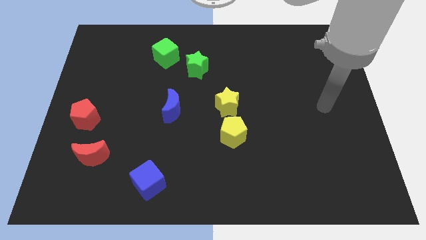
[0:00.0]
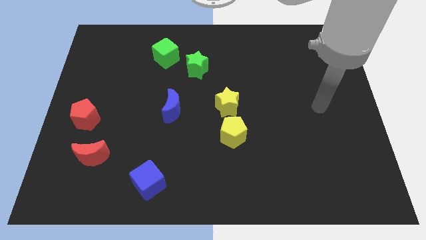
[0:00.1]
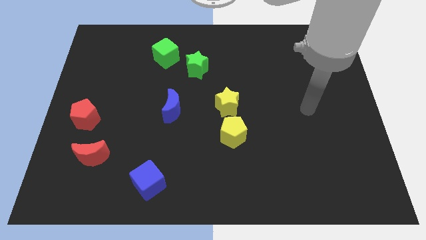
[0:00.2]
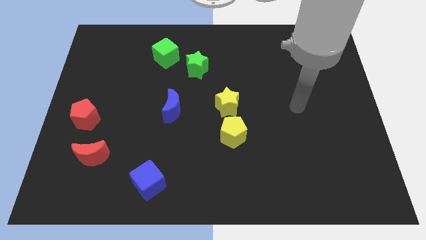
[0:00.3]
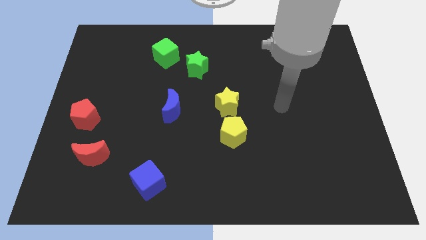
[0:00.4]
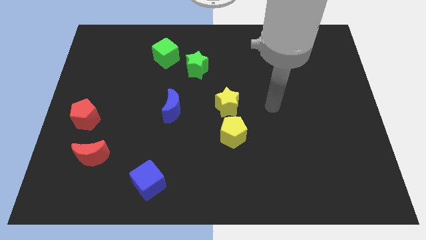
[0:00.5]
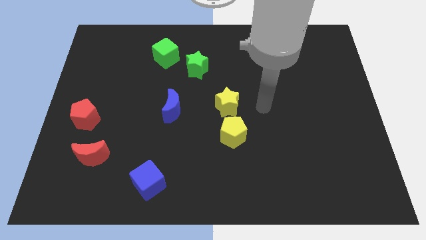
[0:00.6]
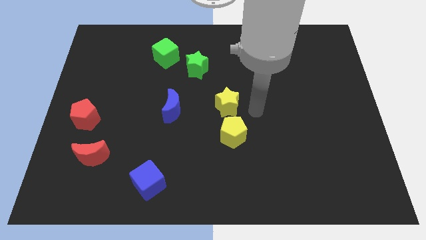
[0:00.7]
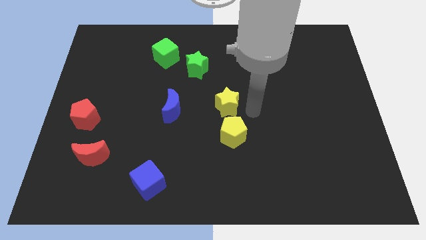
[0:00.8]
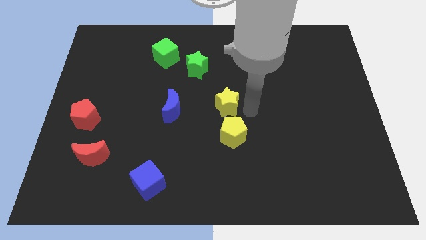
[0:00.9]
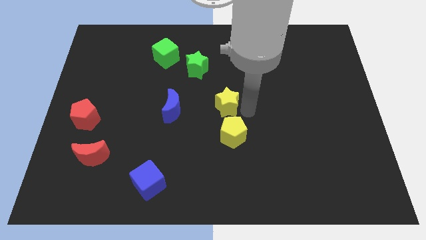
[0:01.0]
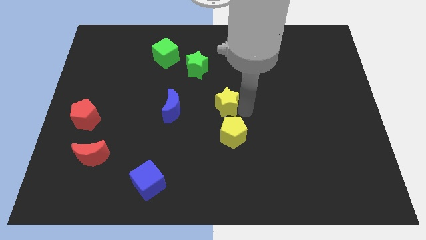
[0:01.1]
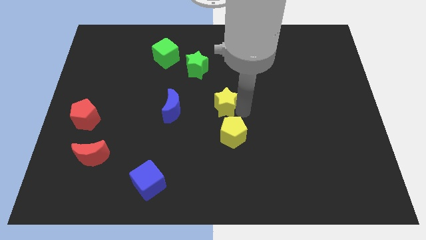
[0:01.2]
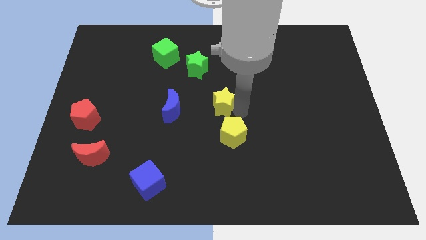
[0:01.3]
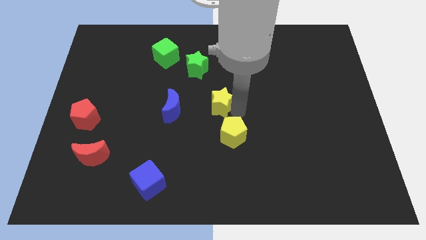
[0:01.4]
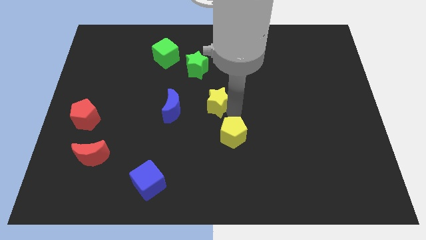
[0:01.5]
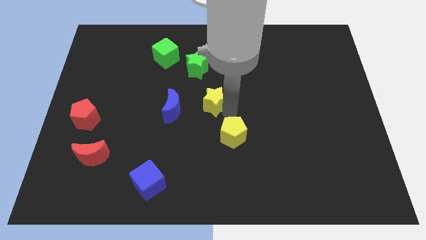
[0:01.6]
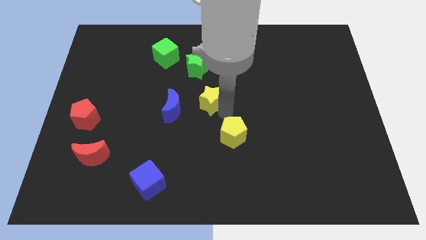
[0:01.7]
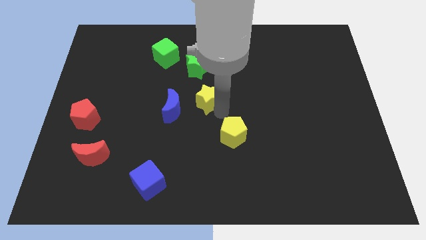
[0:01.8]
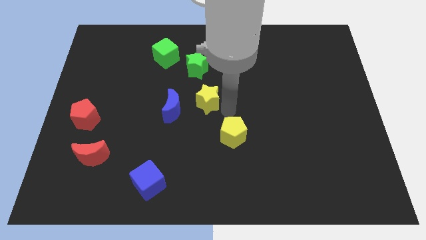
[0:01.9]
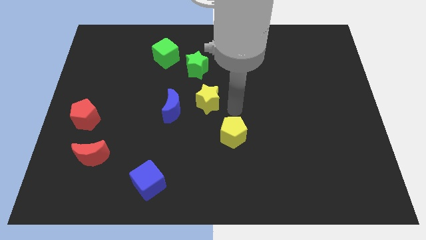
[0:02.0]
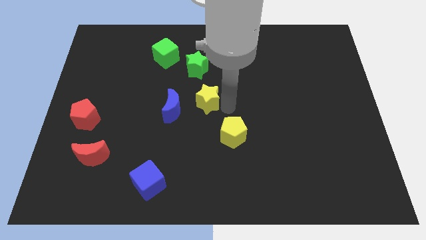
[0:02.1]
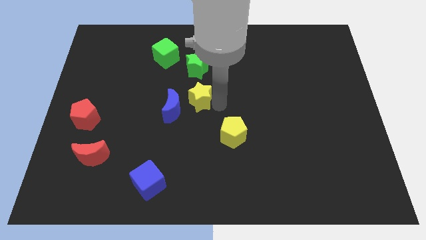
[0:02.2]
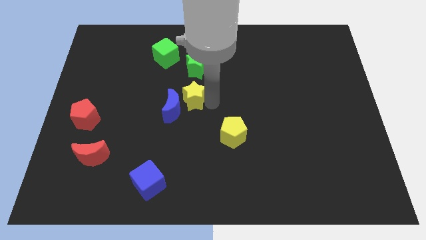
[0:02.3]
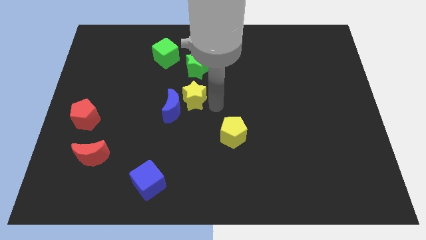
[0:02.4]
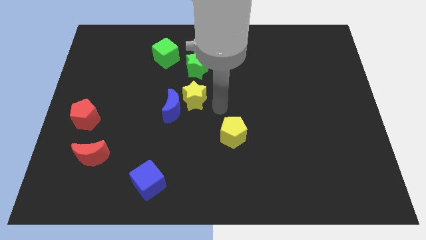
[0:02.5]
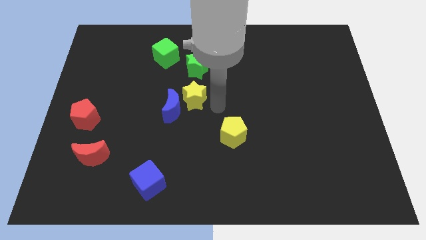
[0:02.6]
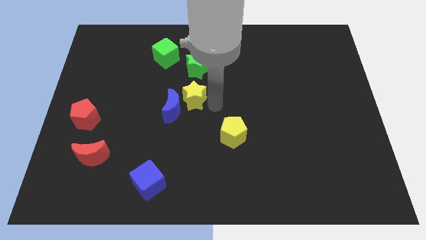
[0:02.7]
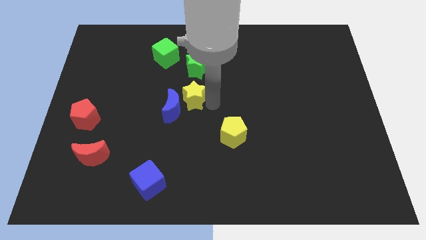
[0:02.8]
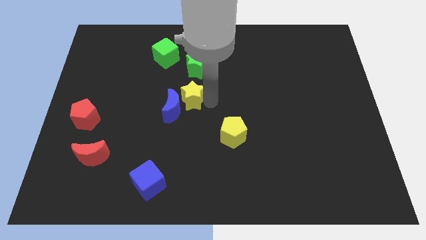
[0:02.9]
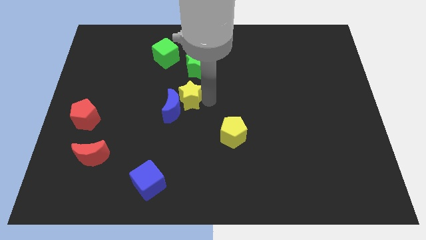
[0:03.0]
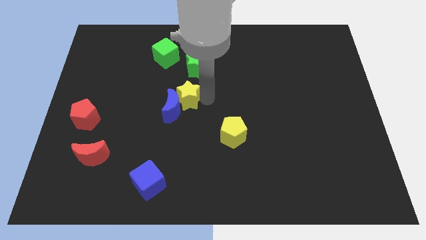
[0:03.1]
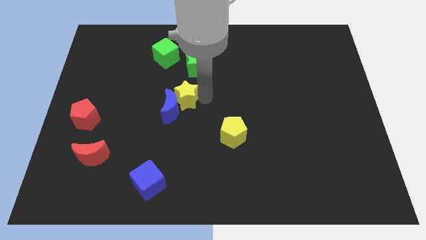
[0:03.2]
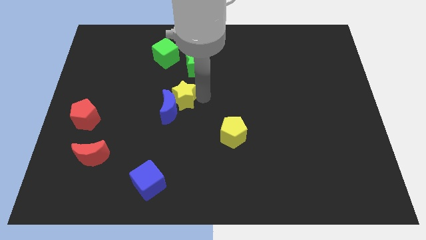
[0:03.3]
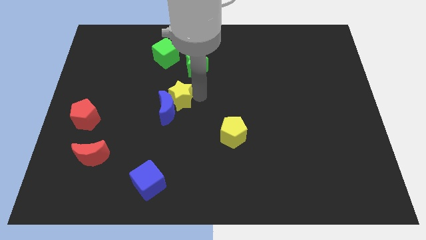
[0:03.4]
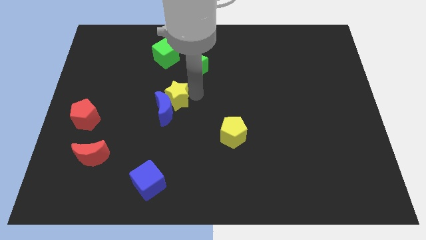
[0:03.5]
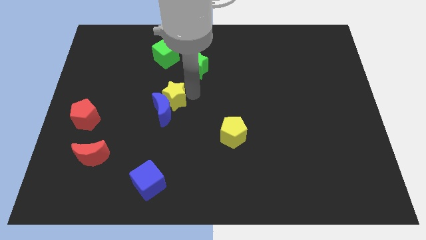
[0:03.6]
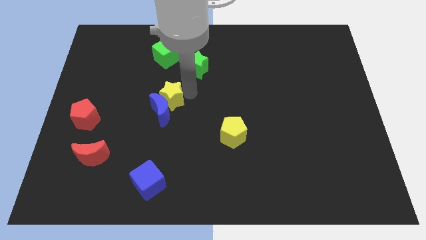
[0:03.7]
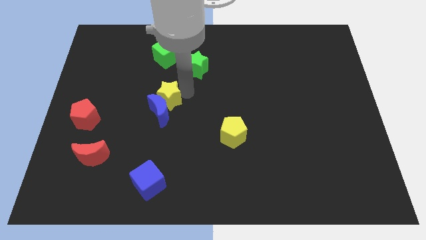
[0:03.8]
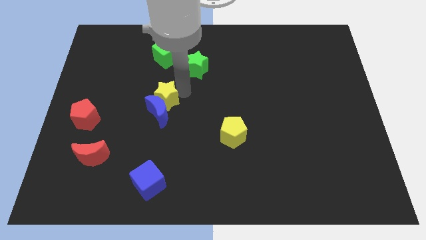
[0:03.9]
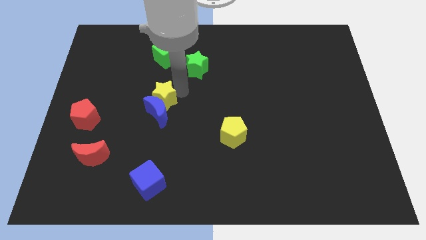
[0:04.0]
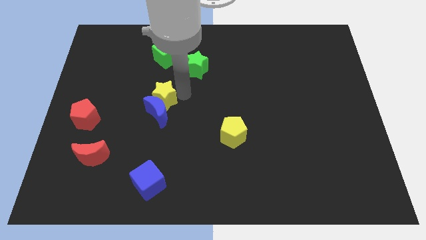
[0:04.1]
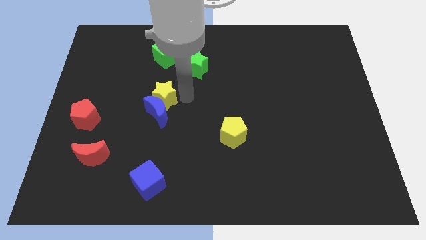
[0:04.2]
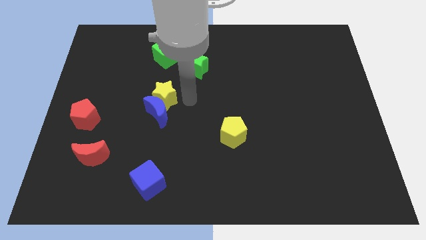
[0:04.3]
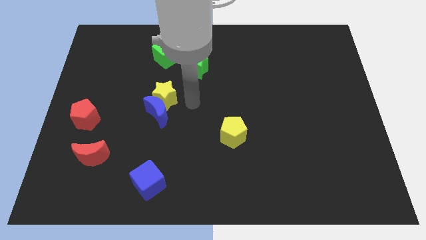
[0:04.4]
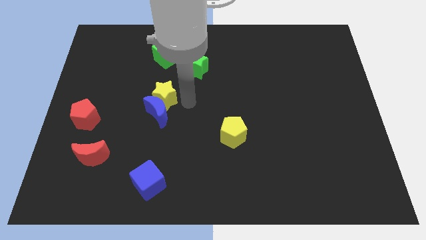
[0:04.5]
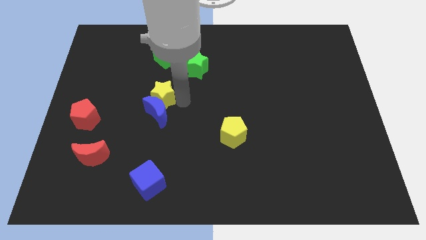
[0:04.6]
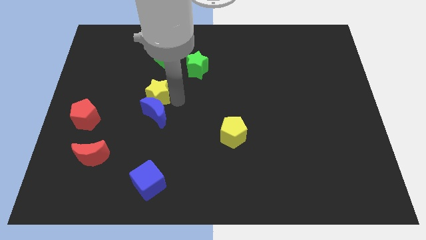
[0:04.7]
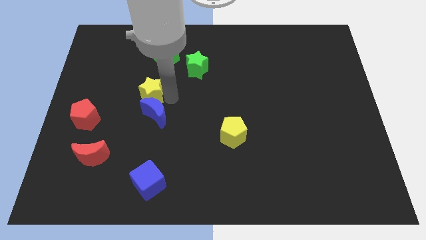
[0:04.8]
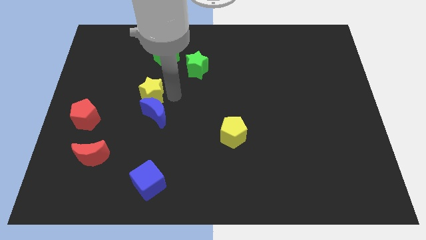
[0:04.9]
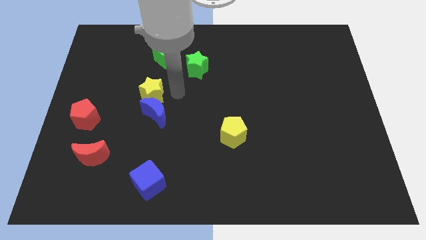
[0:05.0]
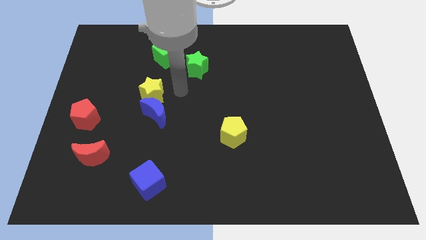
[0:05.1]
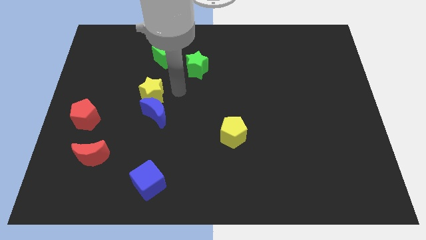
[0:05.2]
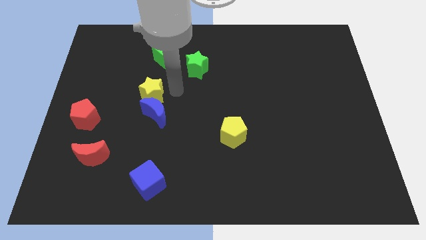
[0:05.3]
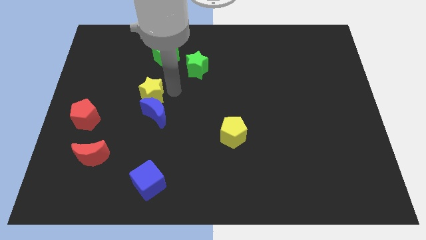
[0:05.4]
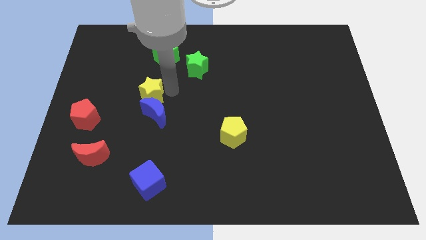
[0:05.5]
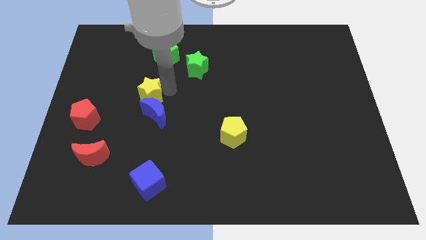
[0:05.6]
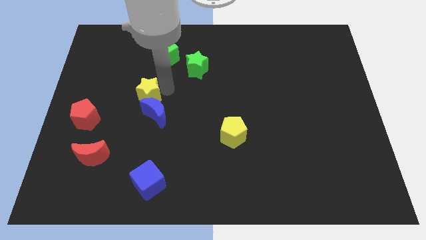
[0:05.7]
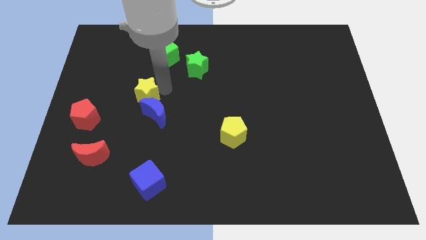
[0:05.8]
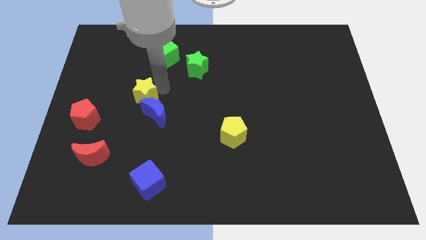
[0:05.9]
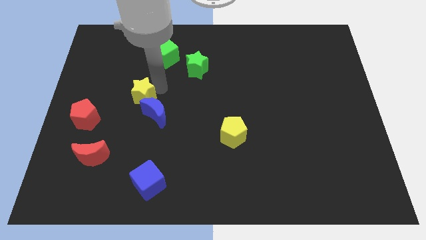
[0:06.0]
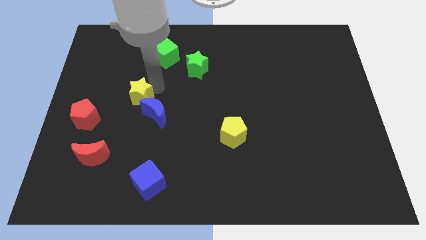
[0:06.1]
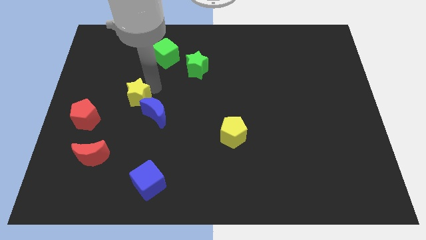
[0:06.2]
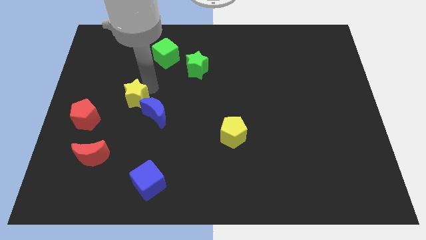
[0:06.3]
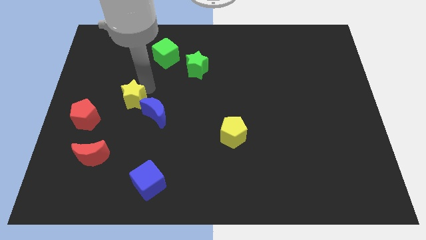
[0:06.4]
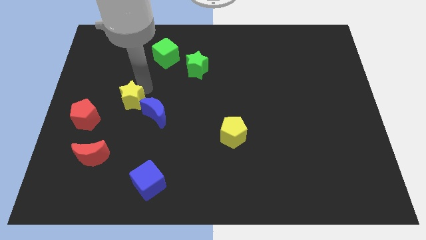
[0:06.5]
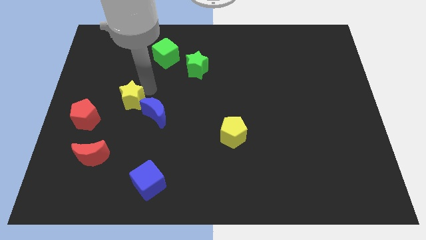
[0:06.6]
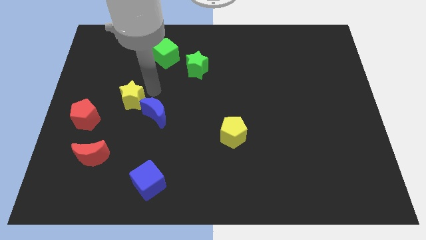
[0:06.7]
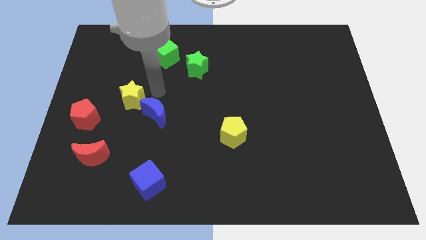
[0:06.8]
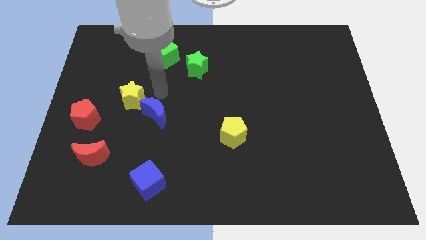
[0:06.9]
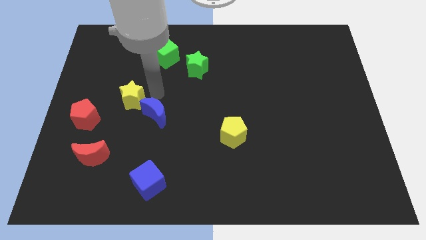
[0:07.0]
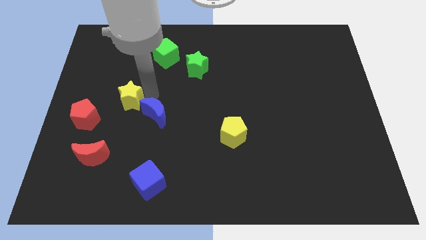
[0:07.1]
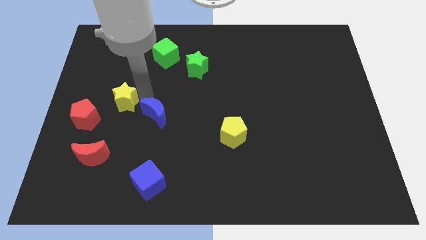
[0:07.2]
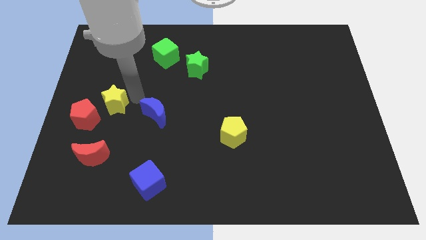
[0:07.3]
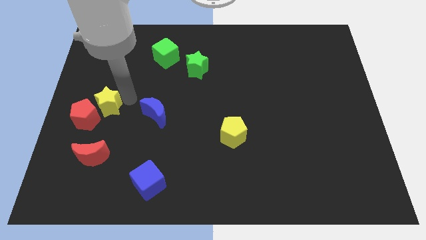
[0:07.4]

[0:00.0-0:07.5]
push the yellow star to the red pentagon
